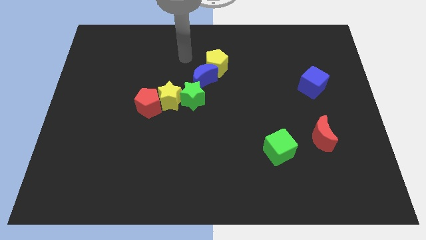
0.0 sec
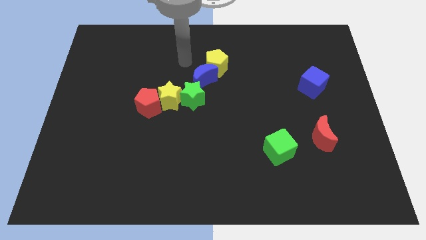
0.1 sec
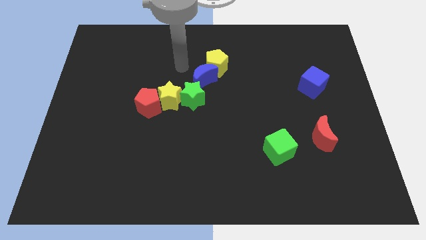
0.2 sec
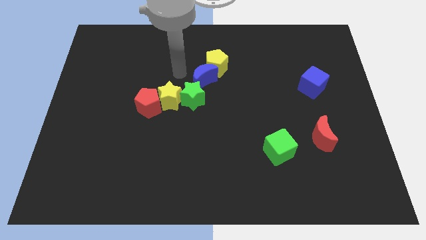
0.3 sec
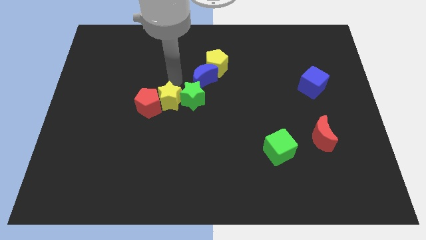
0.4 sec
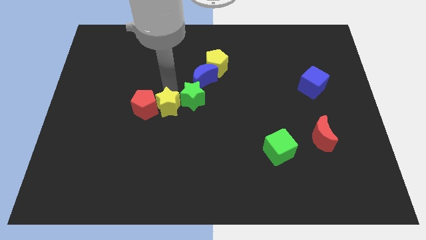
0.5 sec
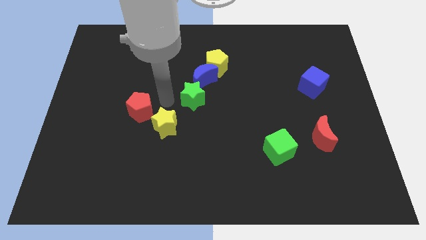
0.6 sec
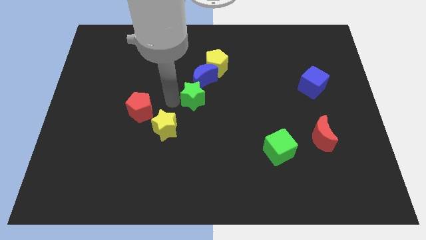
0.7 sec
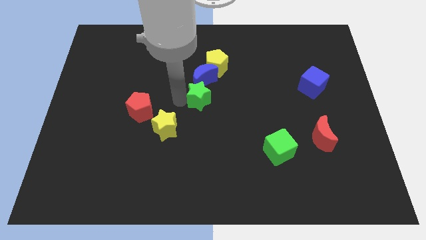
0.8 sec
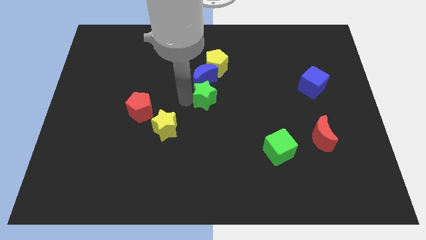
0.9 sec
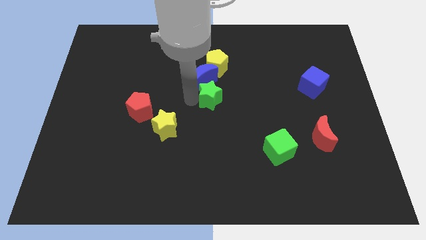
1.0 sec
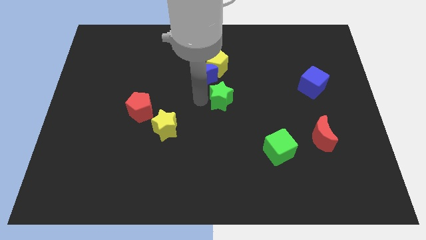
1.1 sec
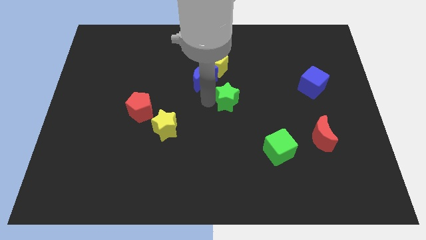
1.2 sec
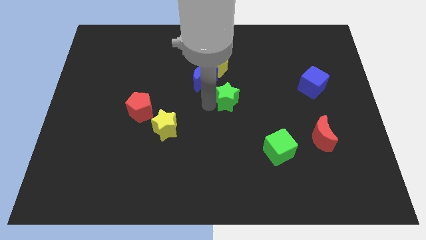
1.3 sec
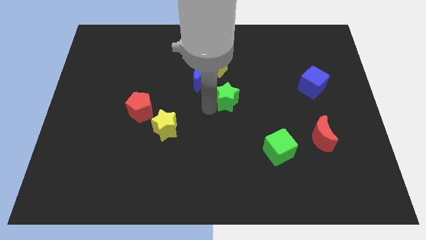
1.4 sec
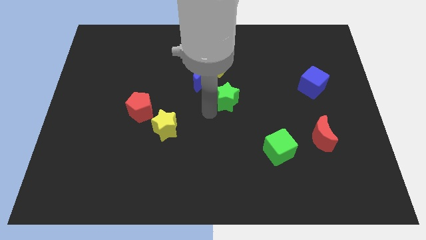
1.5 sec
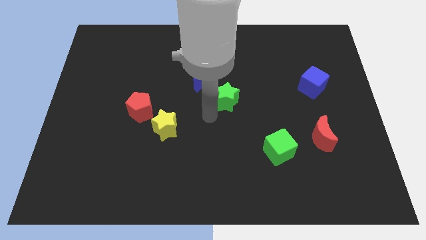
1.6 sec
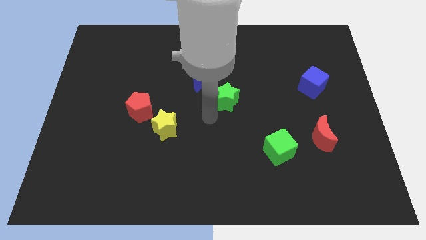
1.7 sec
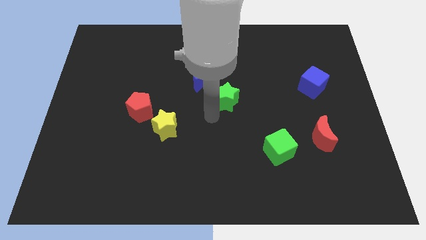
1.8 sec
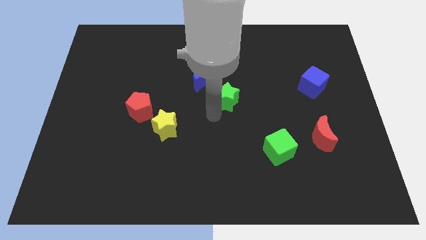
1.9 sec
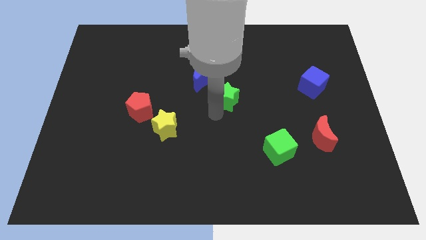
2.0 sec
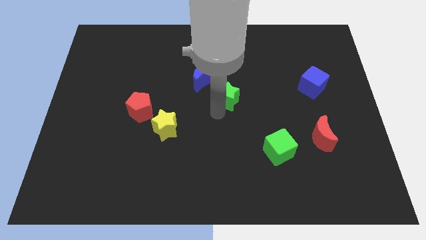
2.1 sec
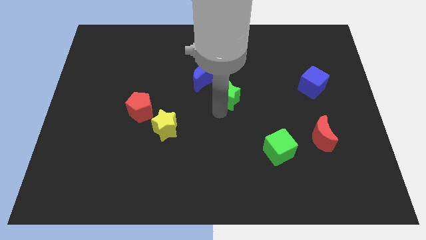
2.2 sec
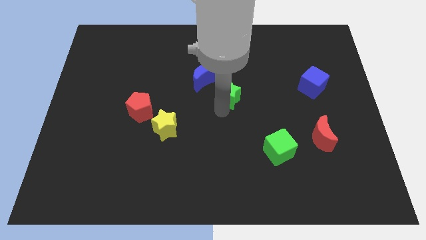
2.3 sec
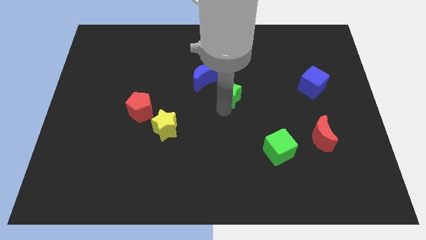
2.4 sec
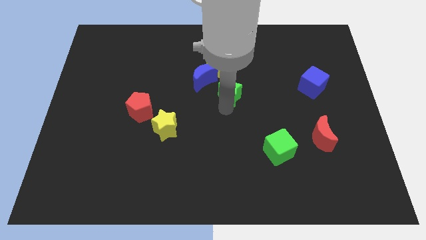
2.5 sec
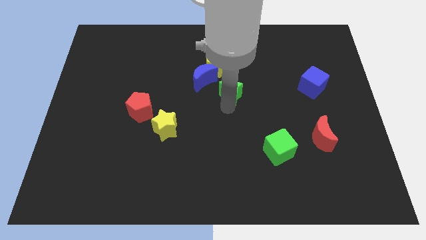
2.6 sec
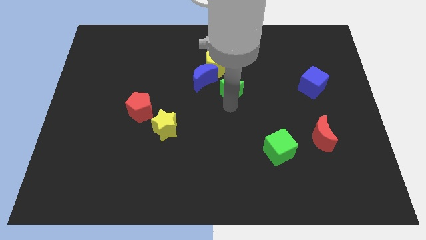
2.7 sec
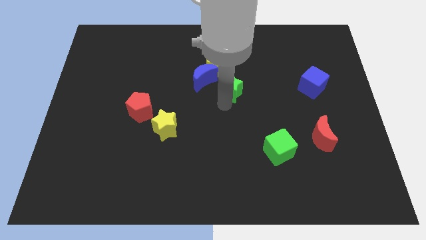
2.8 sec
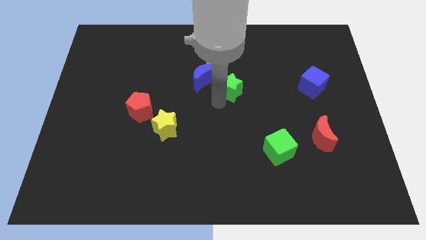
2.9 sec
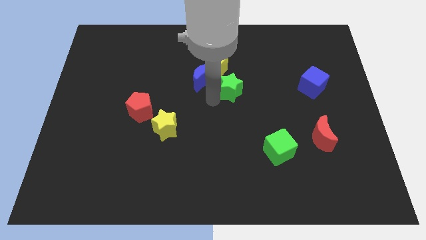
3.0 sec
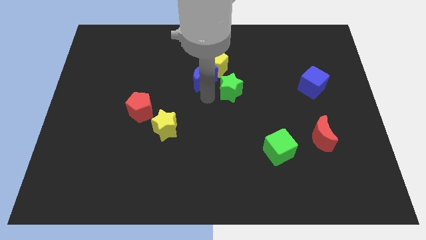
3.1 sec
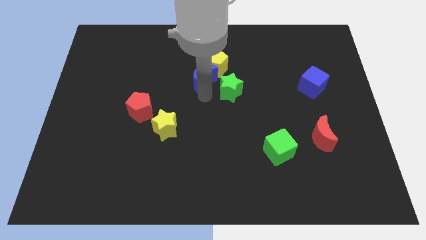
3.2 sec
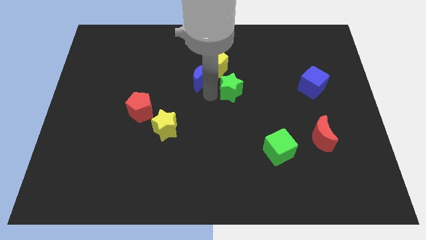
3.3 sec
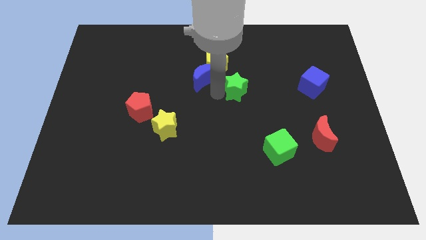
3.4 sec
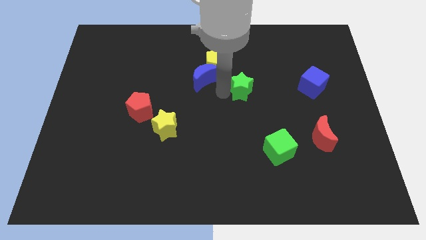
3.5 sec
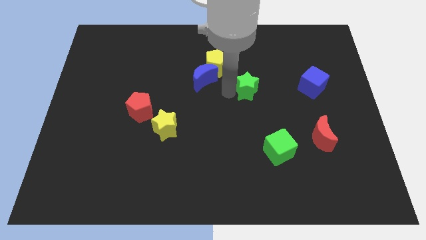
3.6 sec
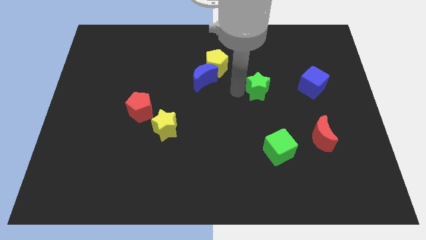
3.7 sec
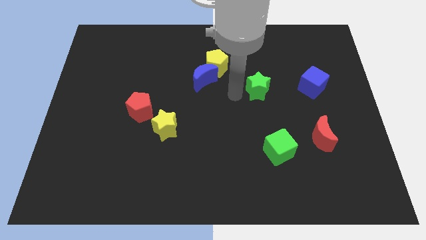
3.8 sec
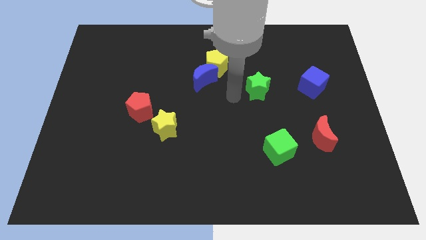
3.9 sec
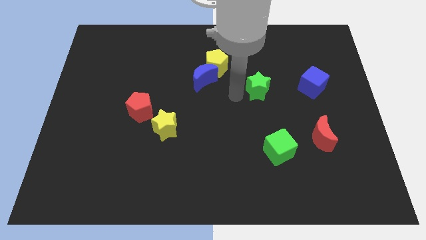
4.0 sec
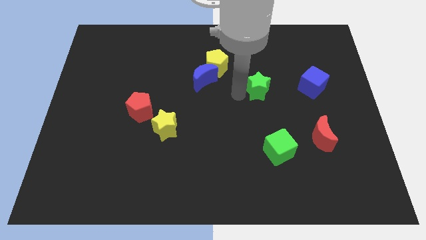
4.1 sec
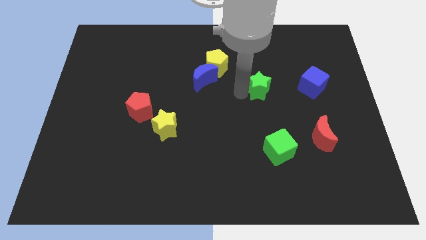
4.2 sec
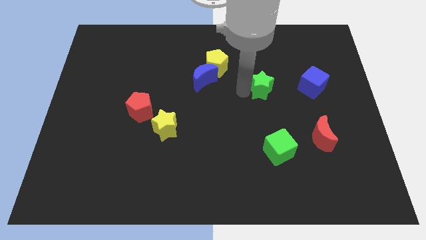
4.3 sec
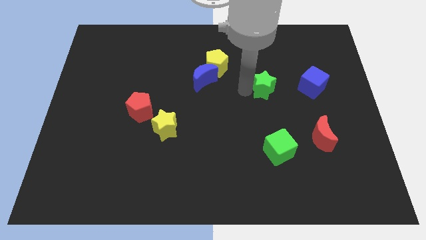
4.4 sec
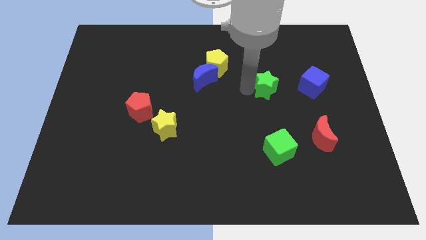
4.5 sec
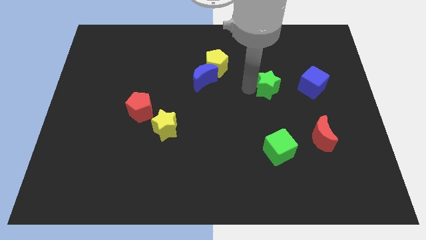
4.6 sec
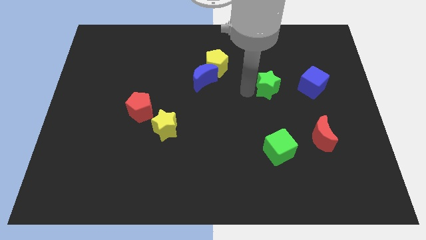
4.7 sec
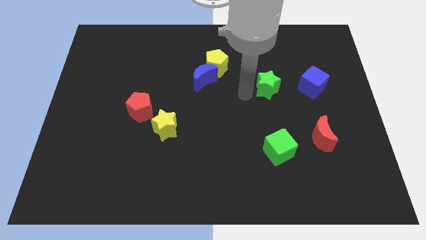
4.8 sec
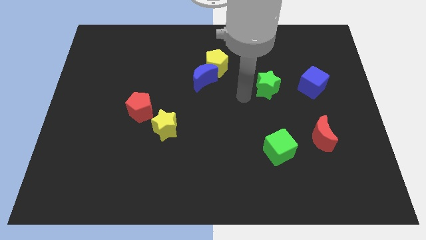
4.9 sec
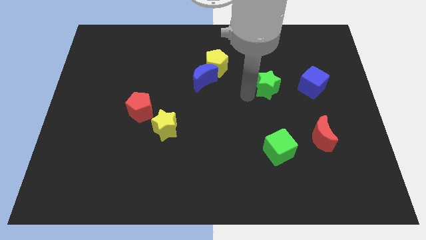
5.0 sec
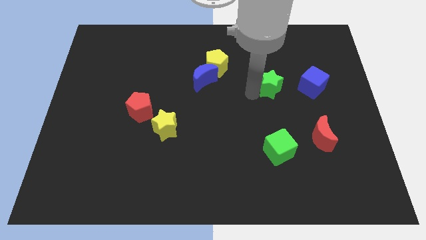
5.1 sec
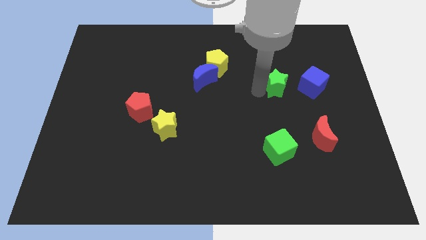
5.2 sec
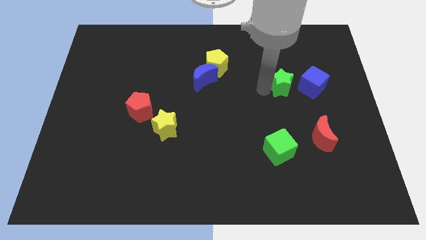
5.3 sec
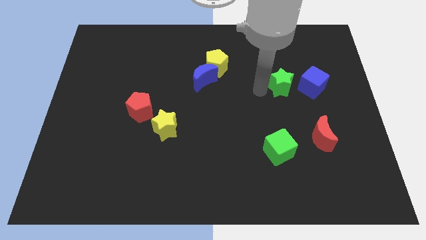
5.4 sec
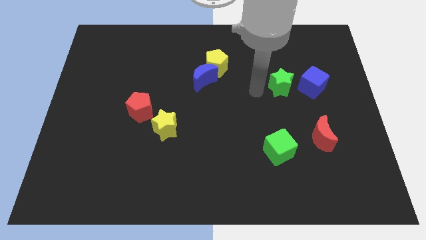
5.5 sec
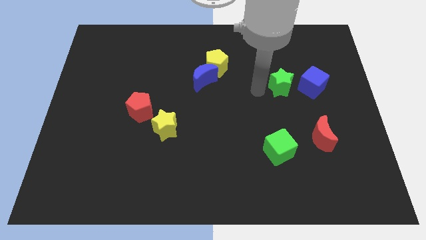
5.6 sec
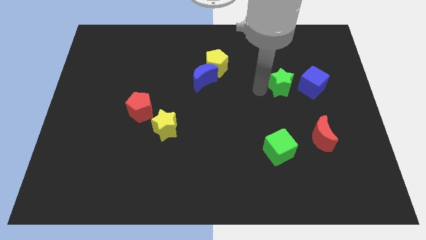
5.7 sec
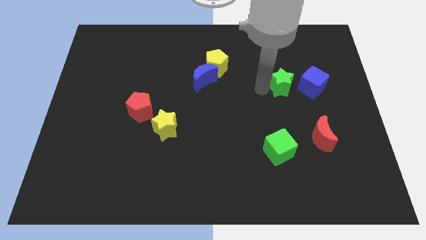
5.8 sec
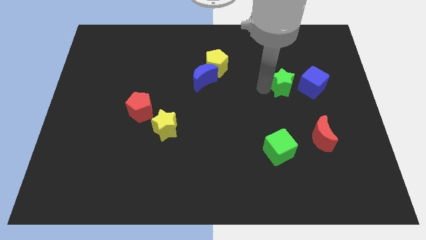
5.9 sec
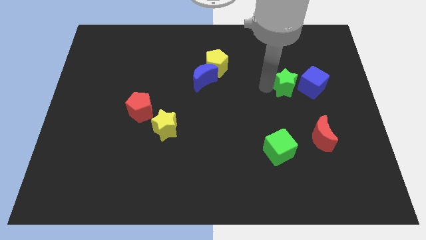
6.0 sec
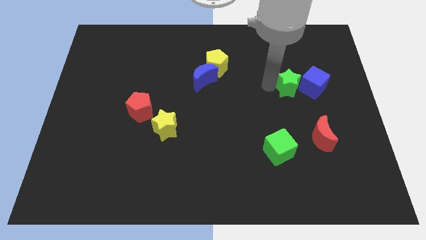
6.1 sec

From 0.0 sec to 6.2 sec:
put the green star close to the blue cube

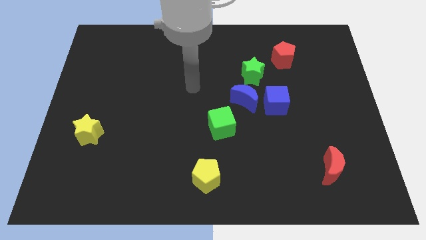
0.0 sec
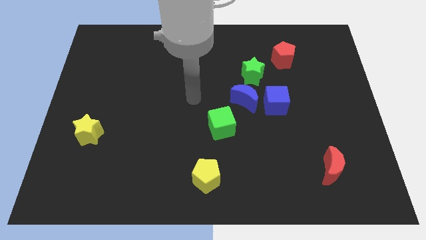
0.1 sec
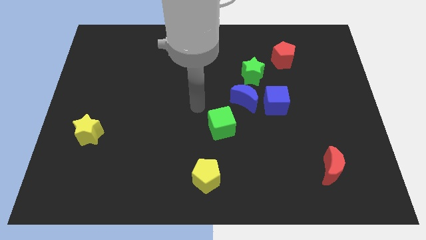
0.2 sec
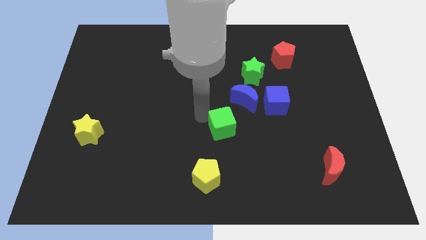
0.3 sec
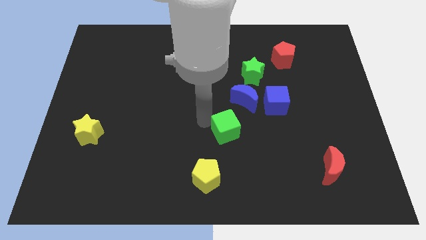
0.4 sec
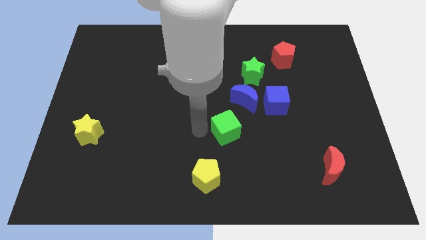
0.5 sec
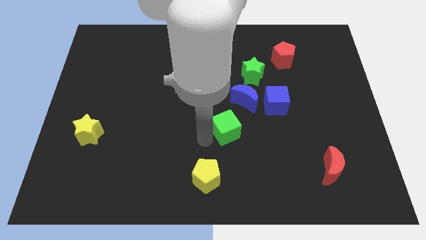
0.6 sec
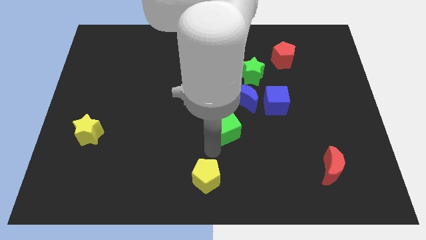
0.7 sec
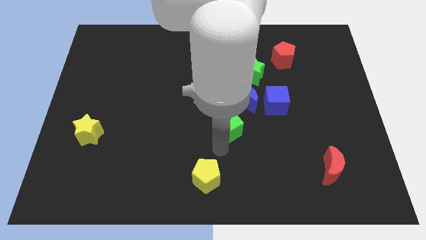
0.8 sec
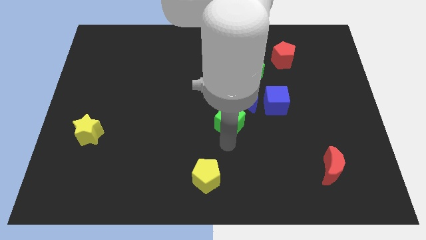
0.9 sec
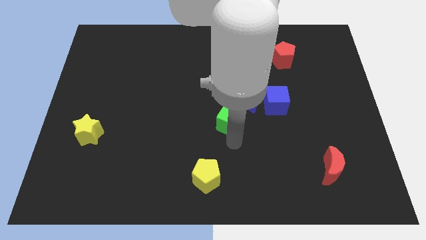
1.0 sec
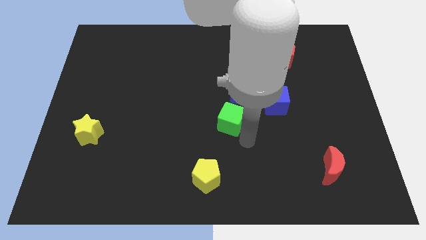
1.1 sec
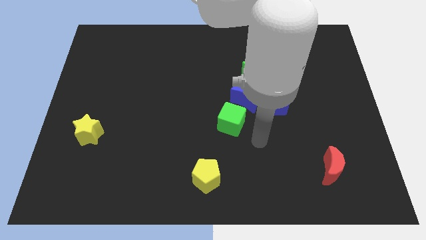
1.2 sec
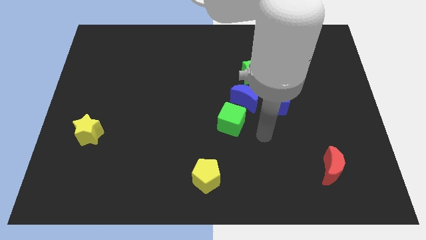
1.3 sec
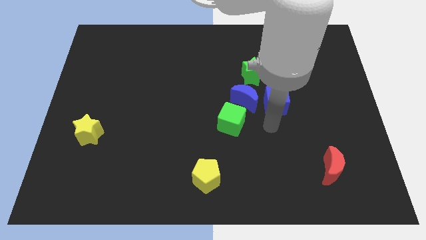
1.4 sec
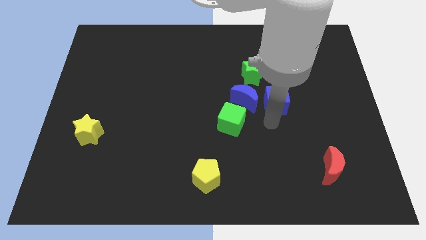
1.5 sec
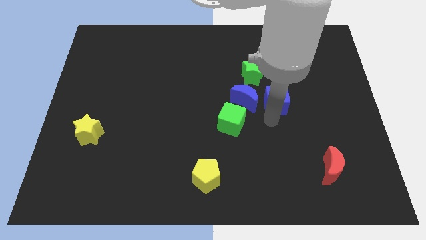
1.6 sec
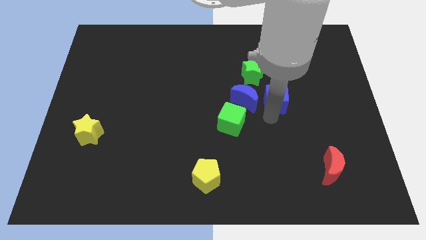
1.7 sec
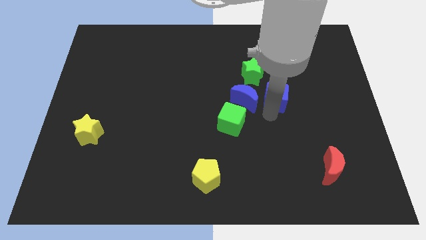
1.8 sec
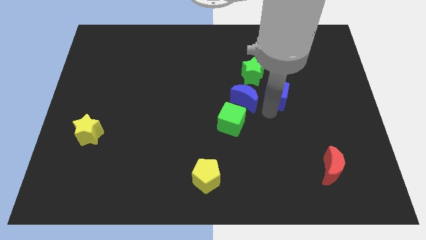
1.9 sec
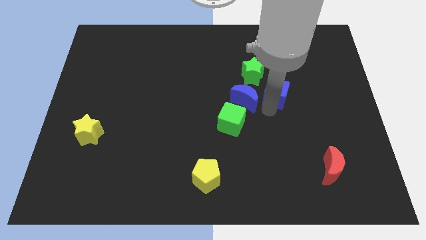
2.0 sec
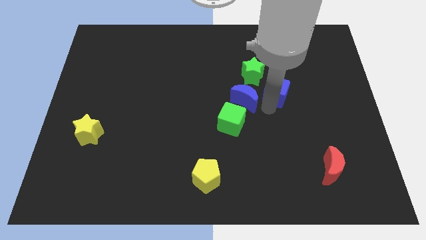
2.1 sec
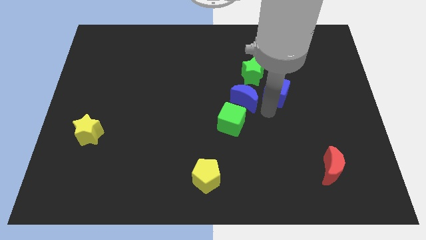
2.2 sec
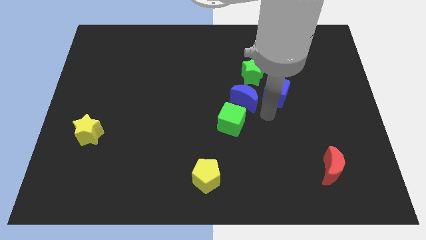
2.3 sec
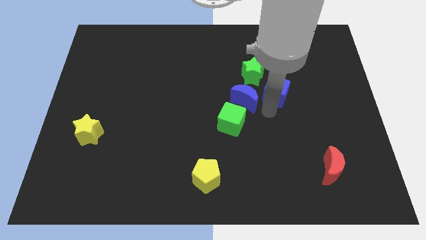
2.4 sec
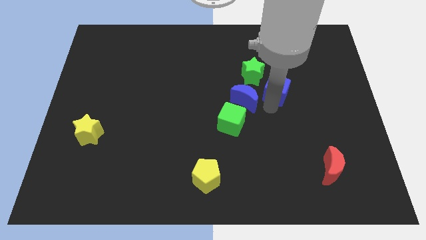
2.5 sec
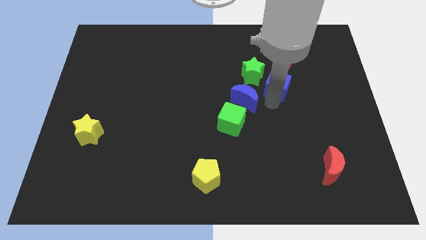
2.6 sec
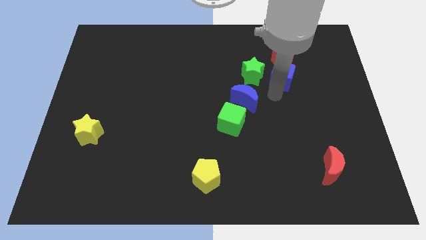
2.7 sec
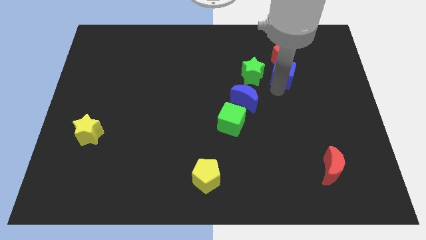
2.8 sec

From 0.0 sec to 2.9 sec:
slide the blue cube next to the red pentagon
